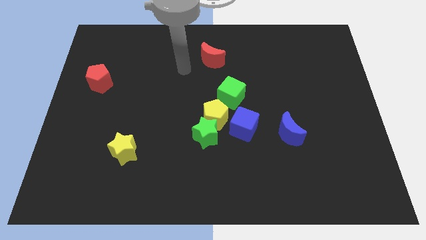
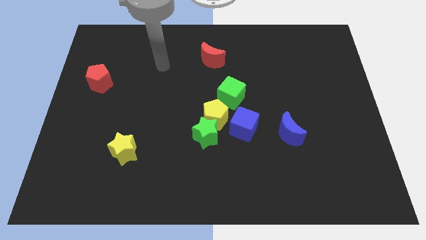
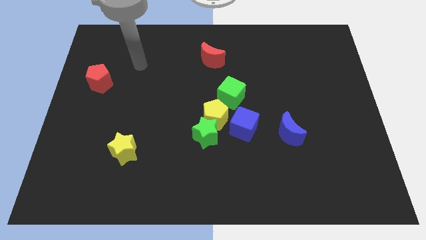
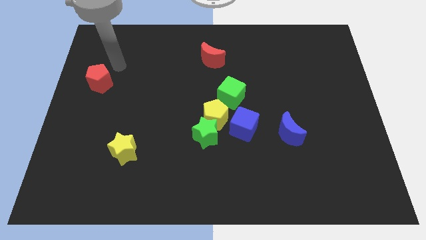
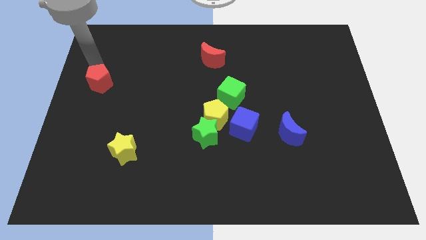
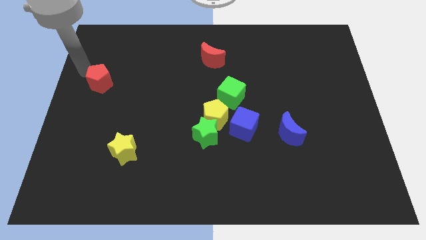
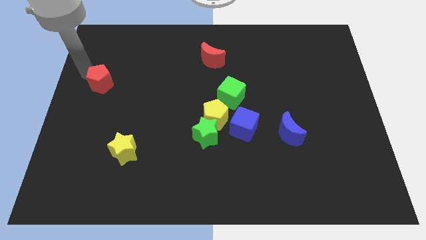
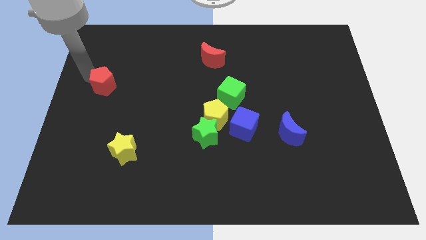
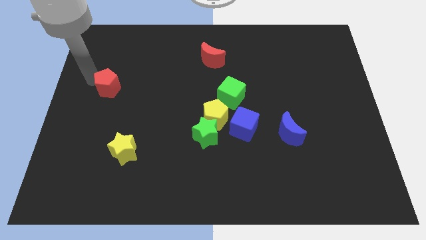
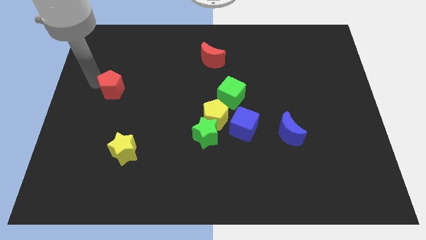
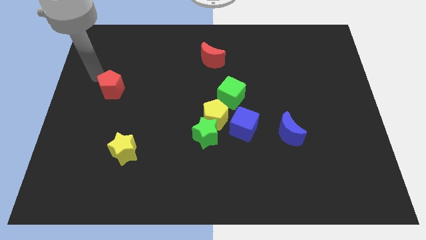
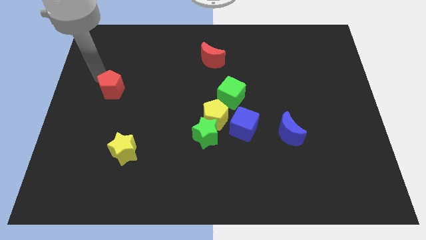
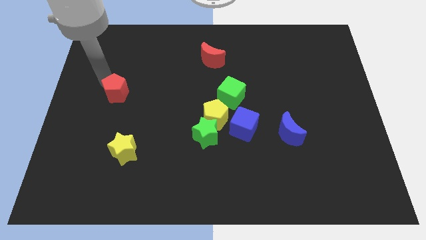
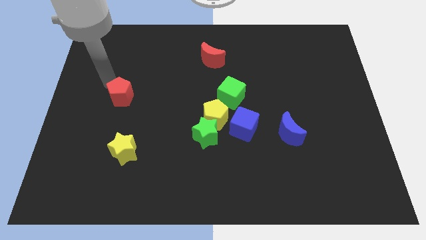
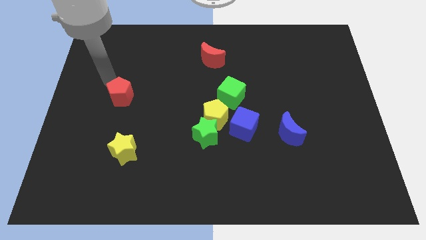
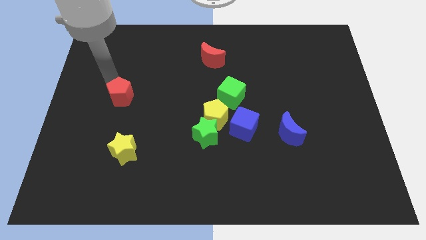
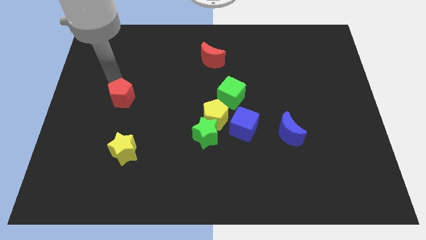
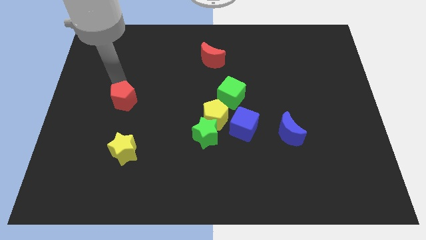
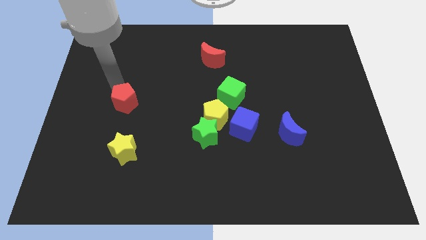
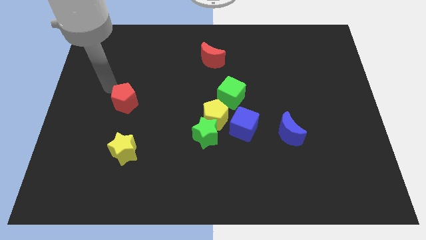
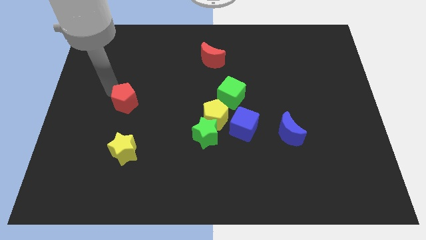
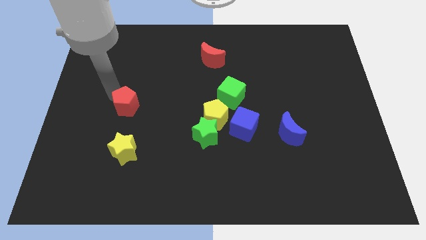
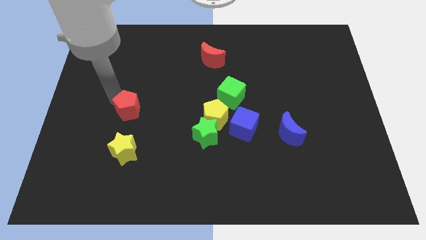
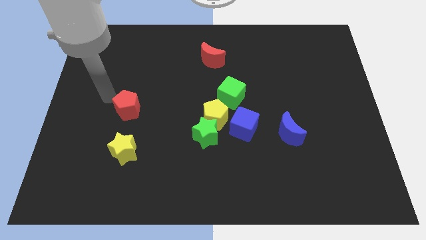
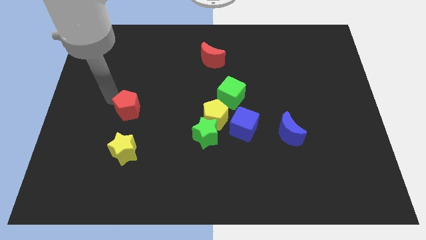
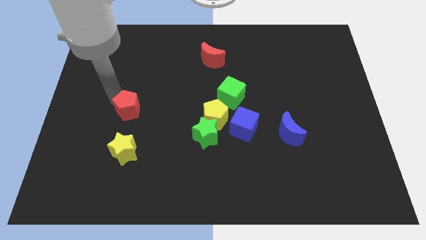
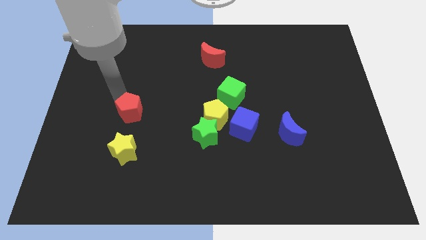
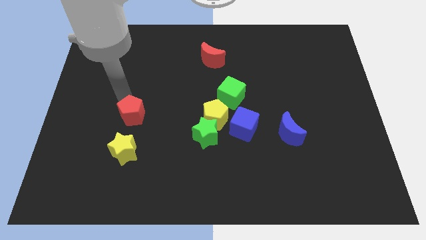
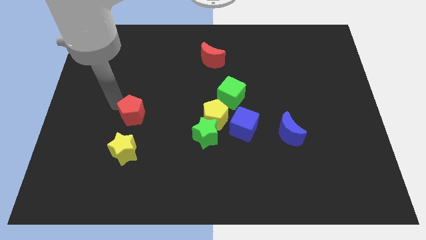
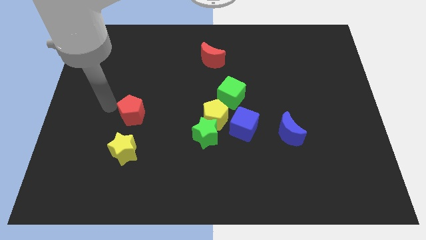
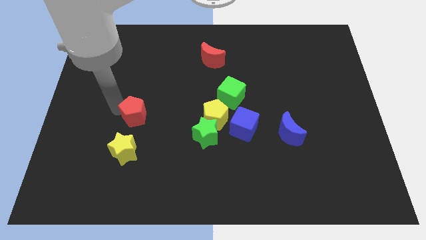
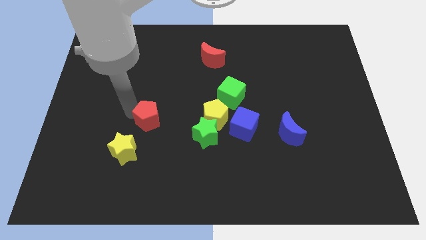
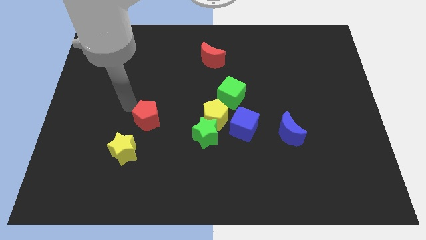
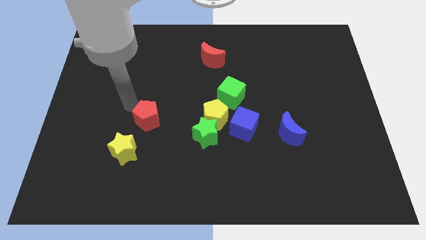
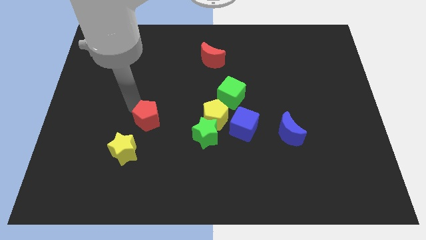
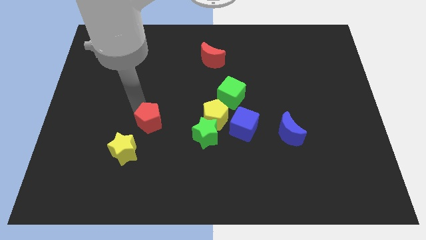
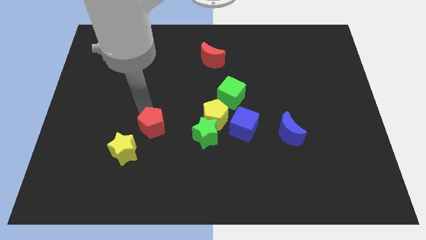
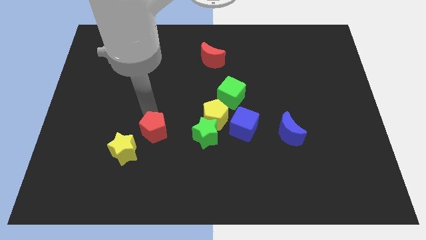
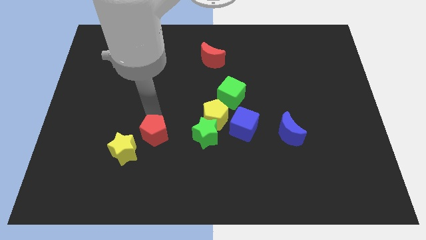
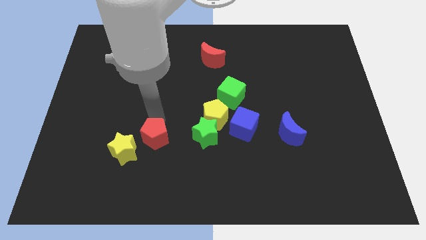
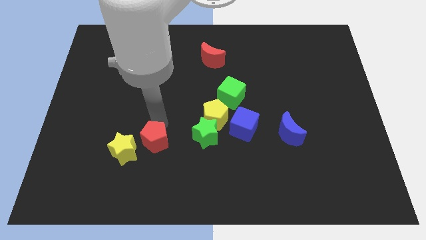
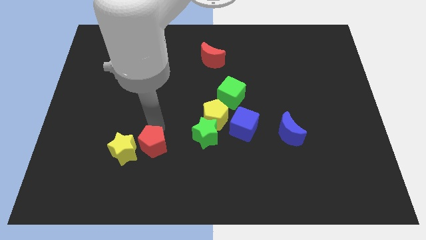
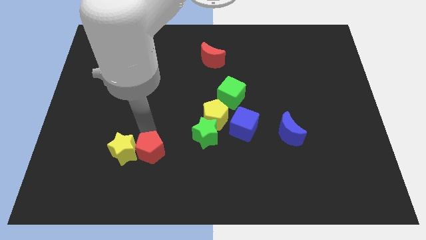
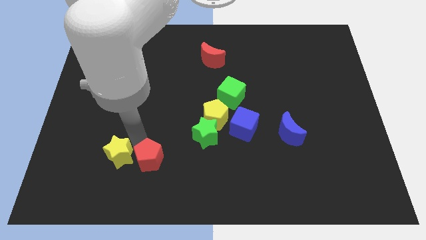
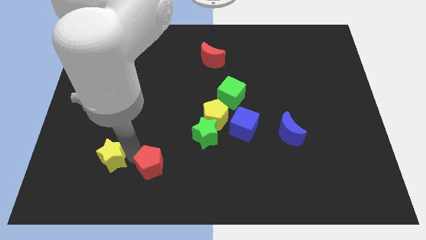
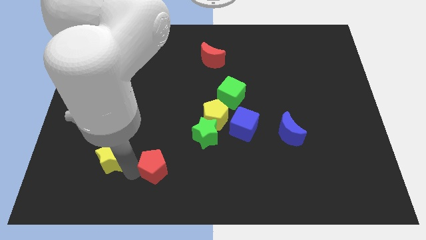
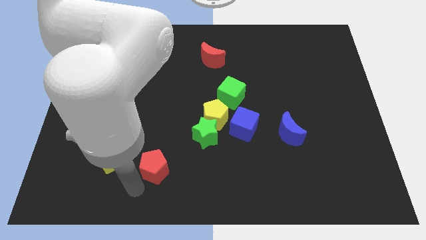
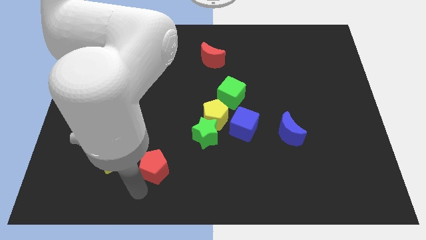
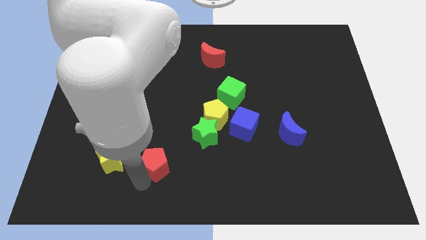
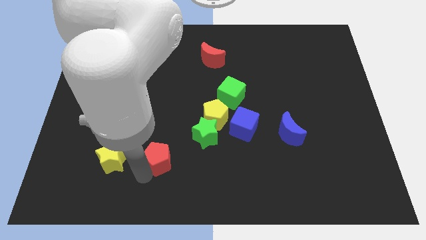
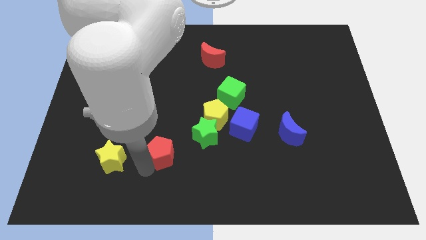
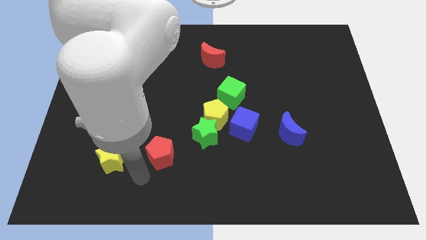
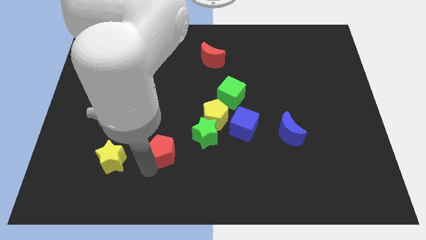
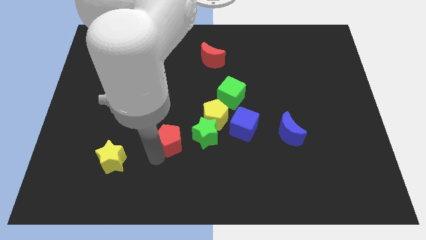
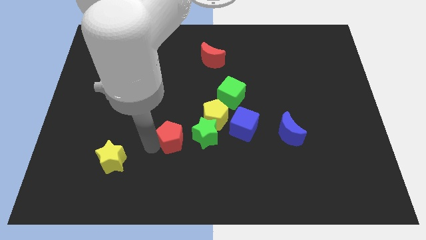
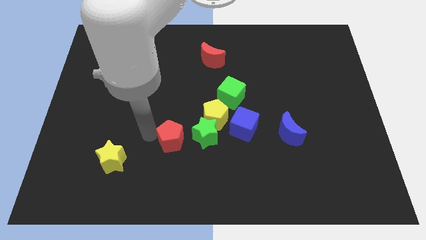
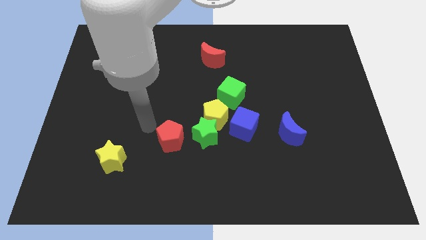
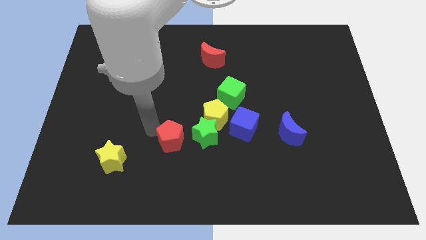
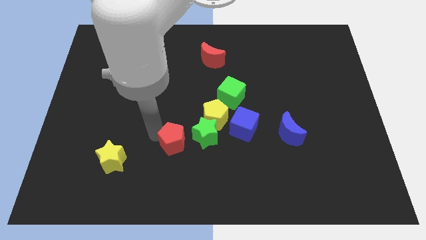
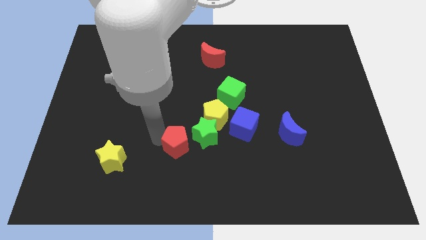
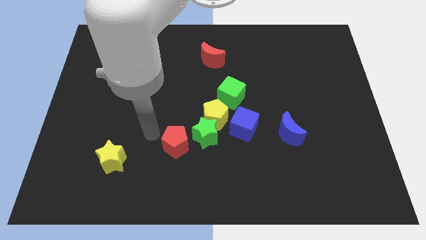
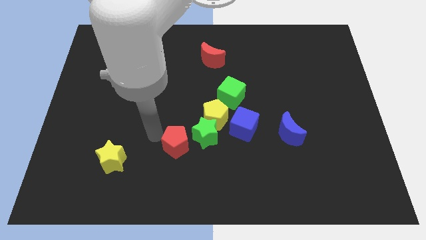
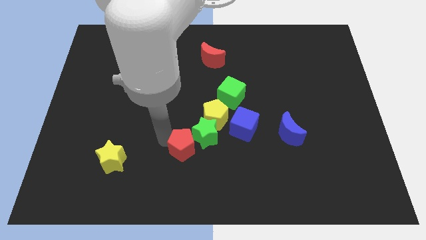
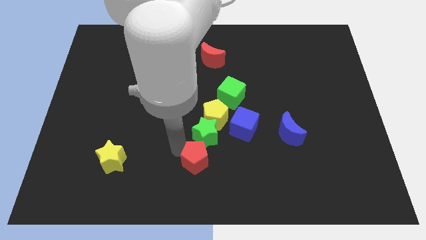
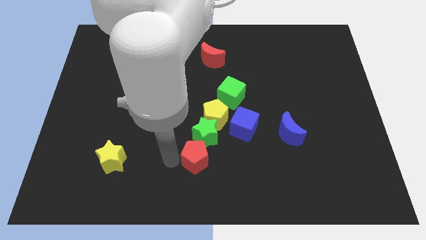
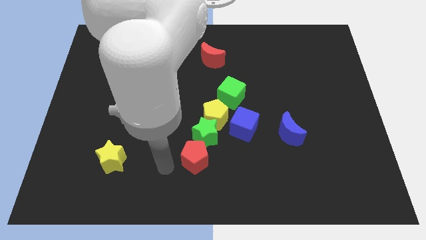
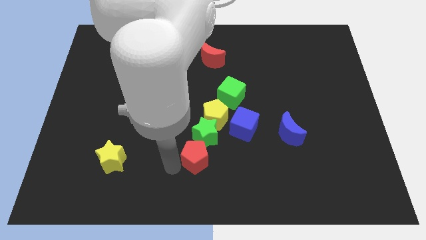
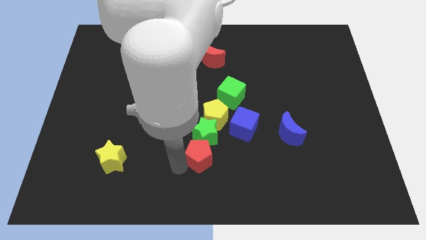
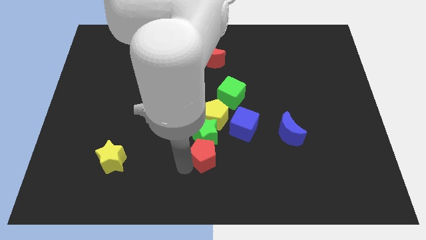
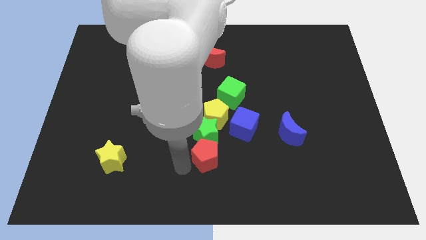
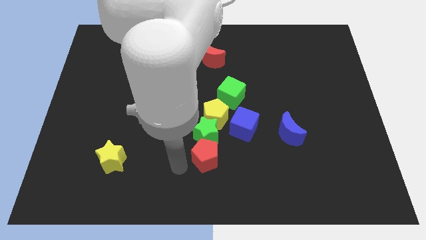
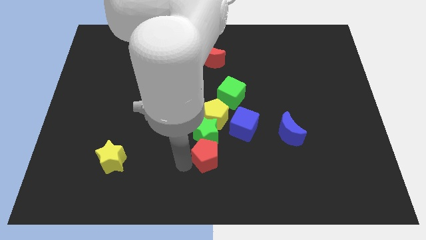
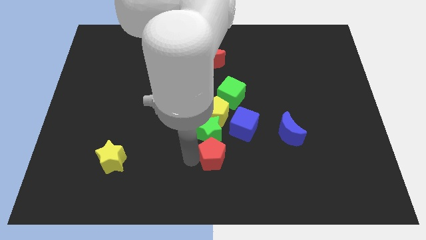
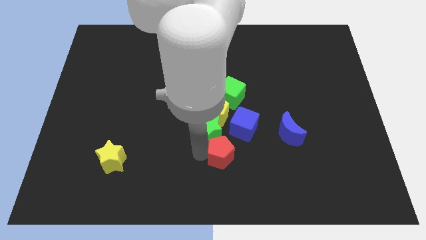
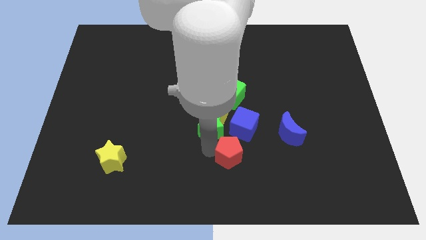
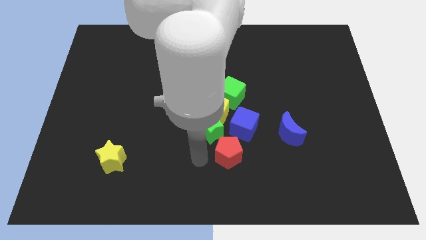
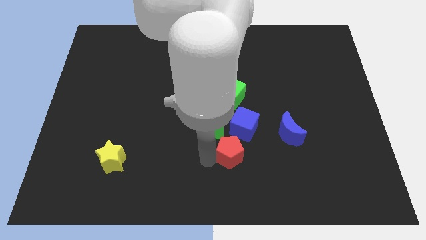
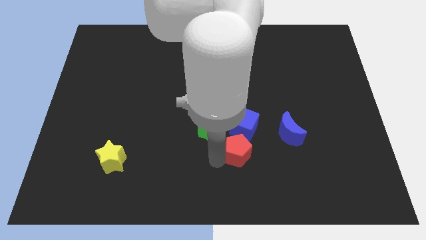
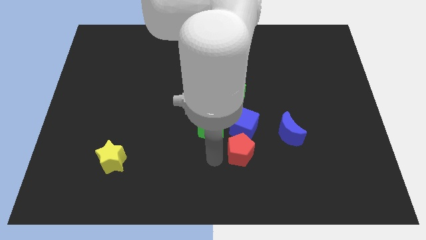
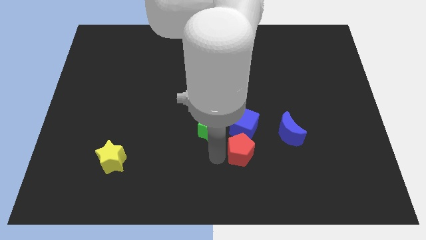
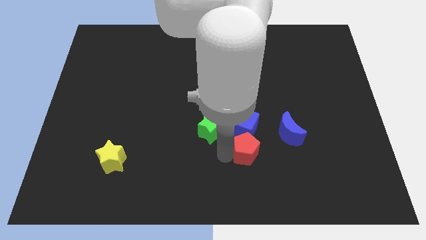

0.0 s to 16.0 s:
slide the red pentagon to the bottom right side of the blue cube
